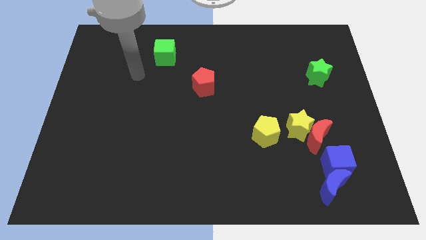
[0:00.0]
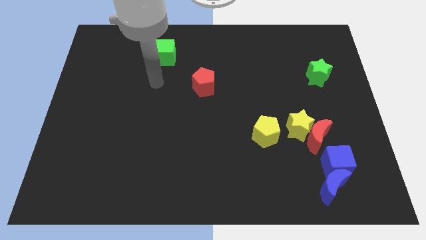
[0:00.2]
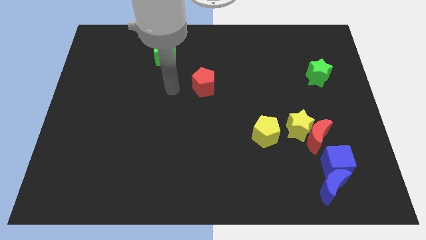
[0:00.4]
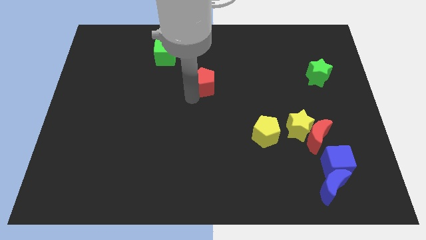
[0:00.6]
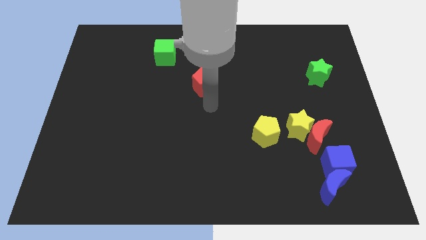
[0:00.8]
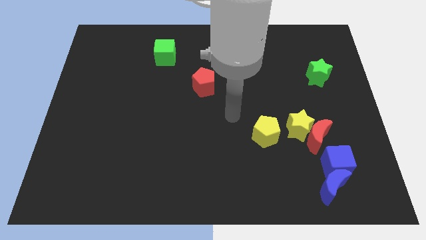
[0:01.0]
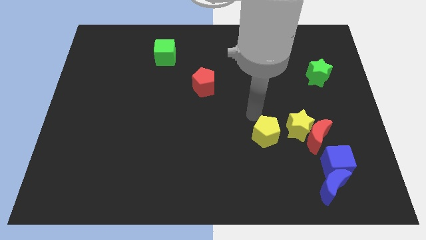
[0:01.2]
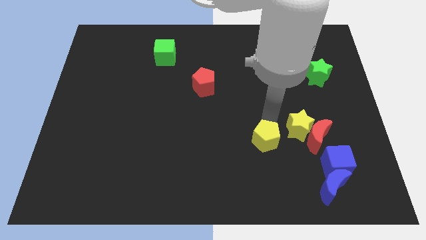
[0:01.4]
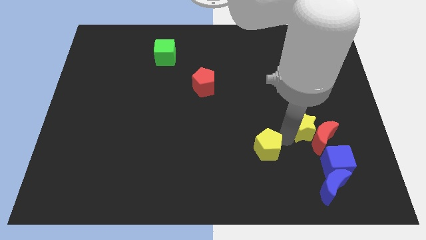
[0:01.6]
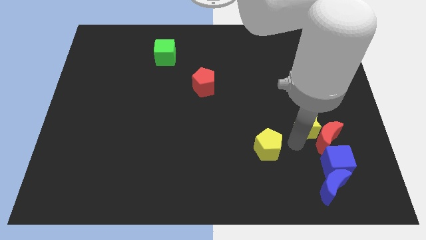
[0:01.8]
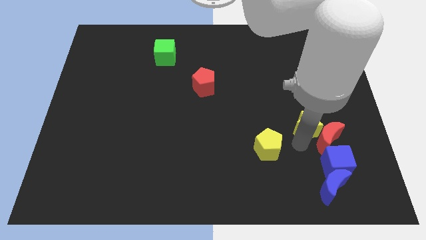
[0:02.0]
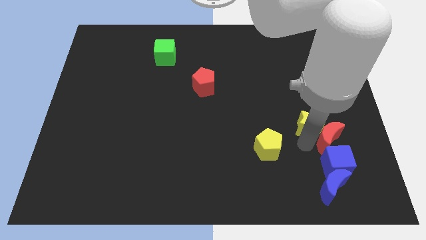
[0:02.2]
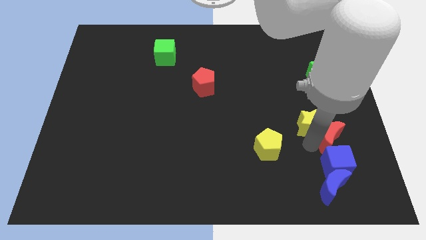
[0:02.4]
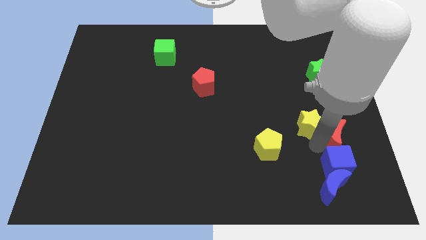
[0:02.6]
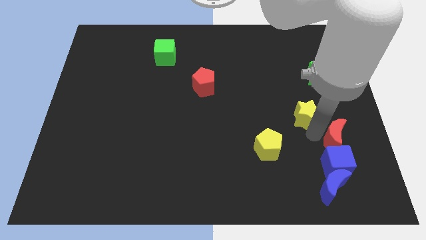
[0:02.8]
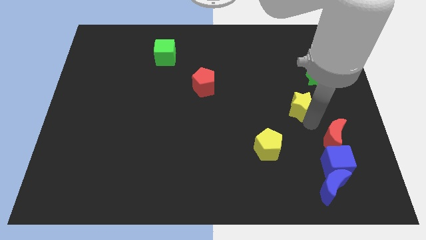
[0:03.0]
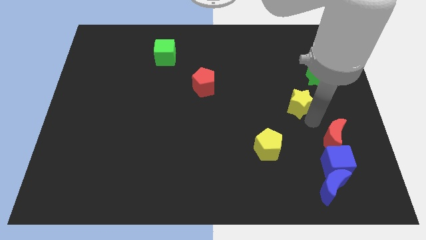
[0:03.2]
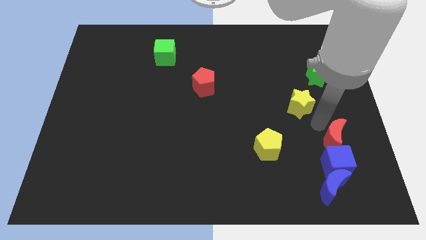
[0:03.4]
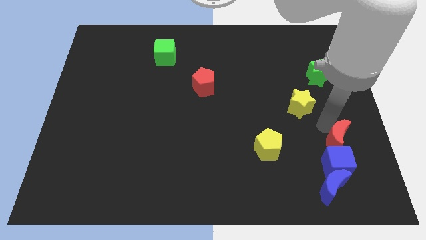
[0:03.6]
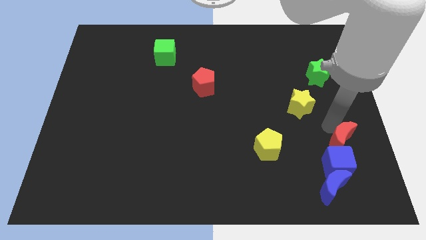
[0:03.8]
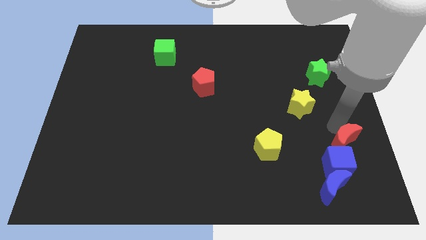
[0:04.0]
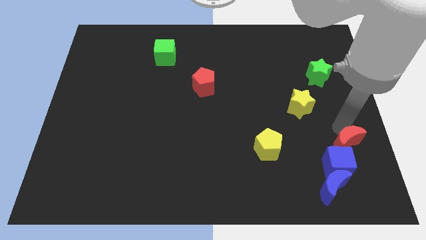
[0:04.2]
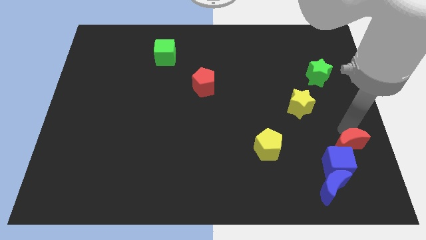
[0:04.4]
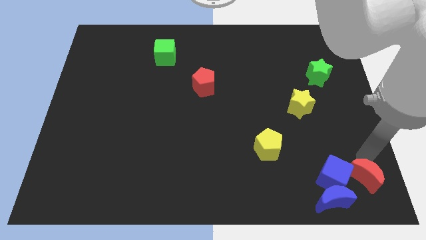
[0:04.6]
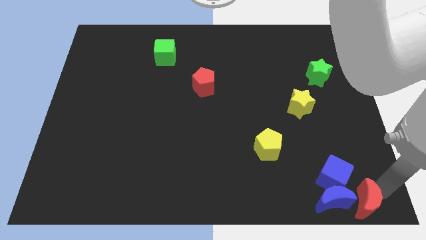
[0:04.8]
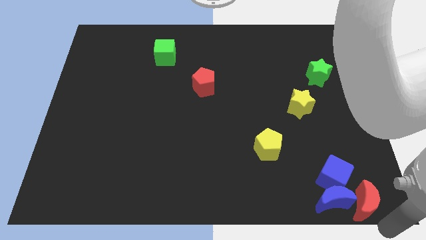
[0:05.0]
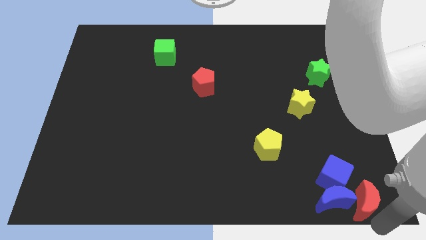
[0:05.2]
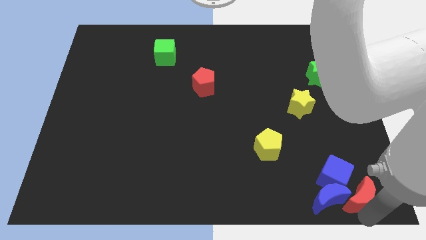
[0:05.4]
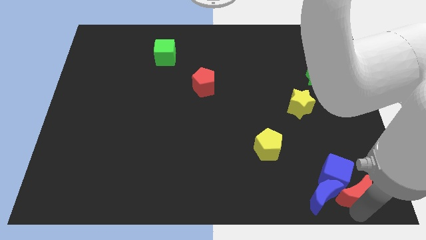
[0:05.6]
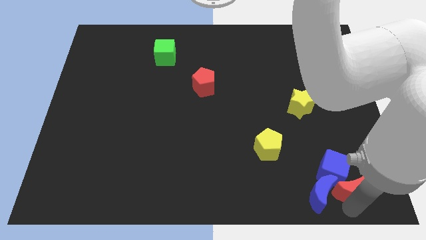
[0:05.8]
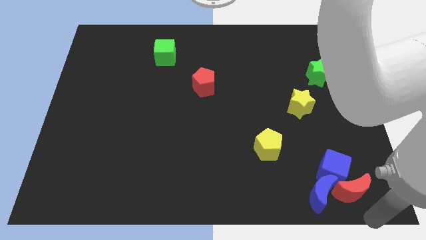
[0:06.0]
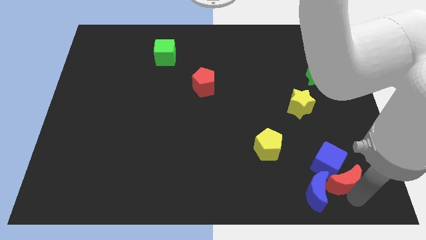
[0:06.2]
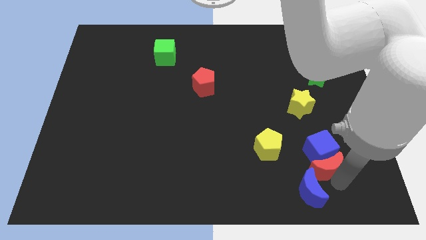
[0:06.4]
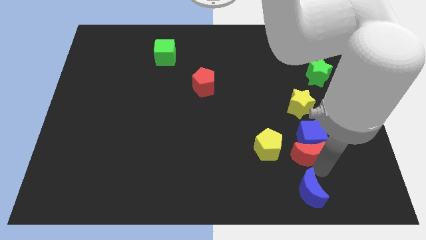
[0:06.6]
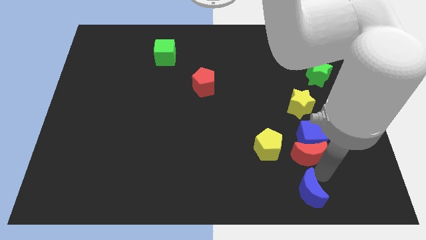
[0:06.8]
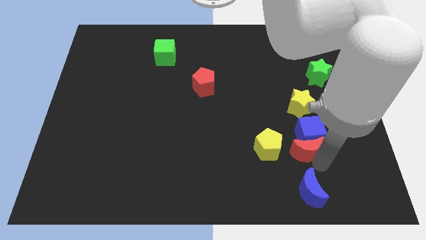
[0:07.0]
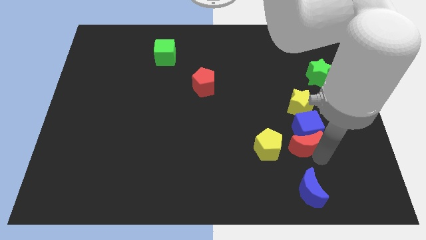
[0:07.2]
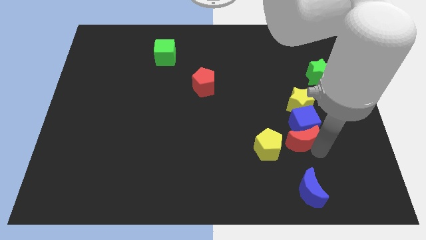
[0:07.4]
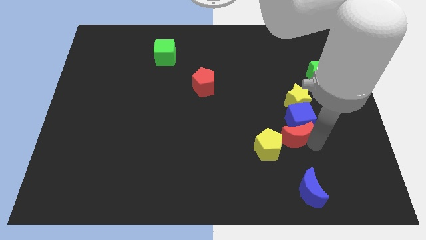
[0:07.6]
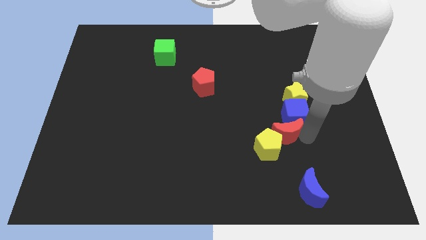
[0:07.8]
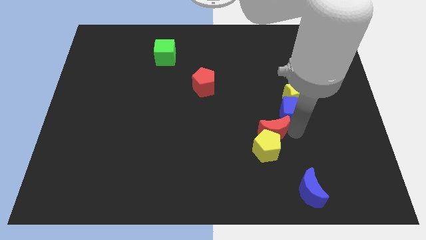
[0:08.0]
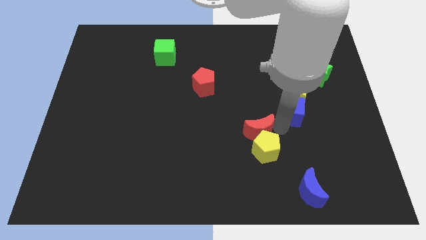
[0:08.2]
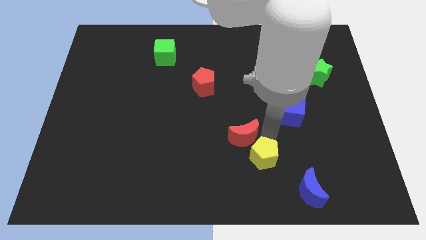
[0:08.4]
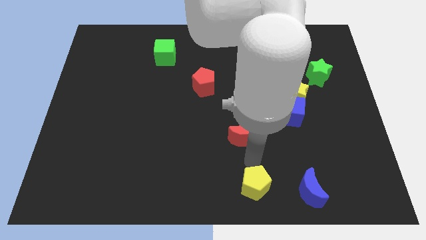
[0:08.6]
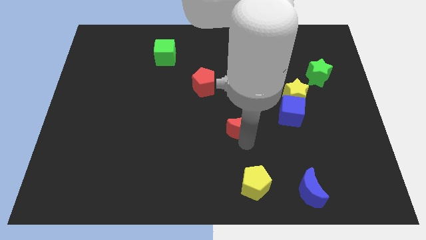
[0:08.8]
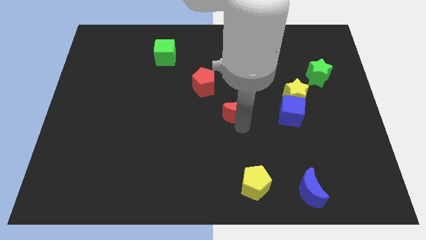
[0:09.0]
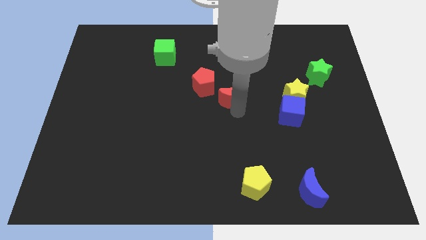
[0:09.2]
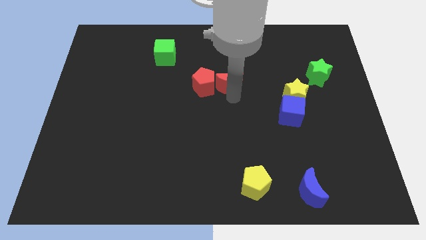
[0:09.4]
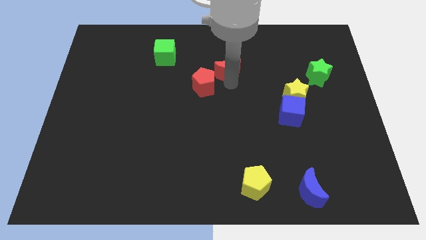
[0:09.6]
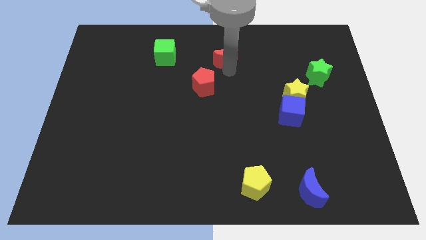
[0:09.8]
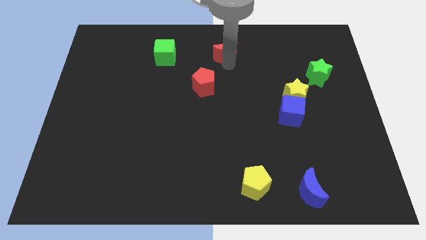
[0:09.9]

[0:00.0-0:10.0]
slide the red moon to the top

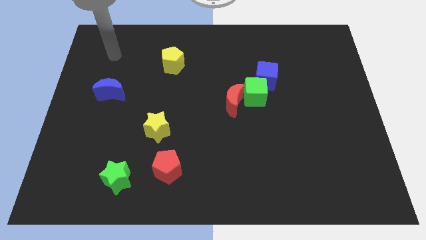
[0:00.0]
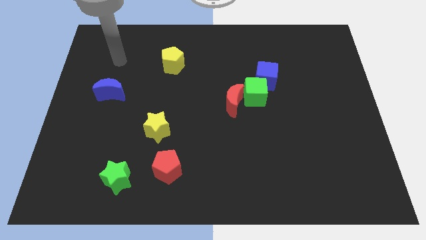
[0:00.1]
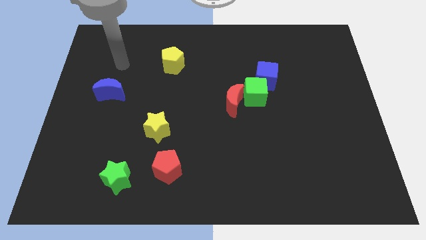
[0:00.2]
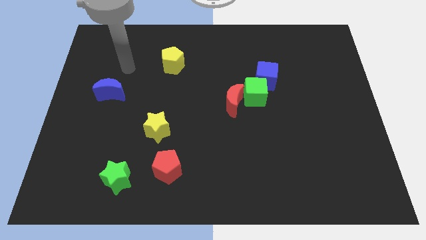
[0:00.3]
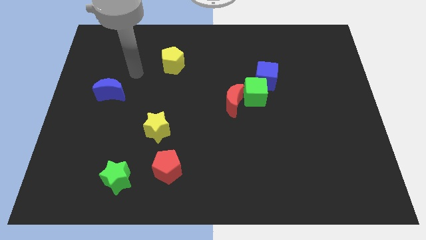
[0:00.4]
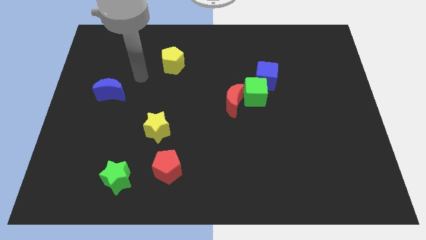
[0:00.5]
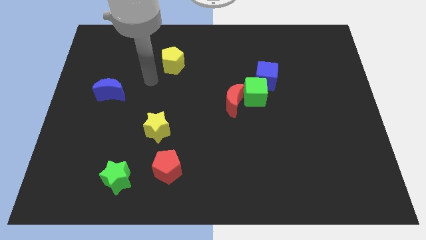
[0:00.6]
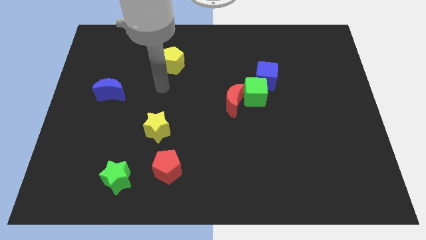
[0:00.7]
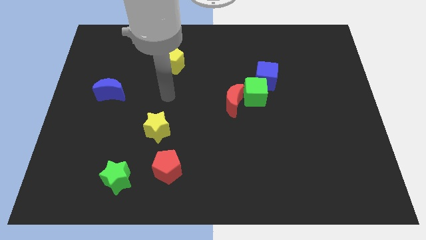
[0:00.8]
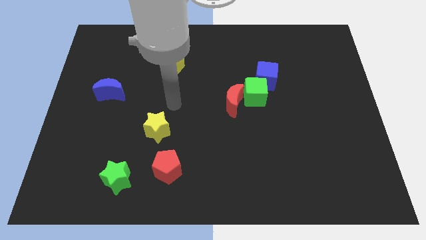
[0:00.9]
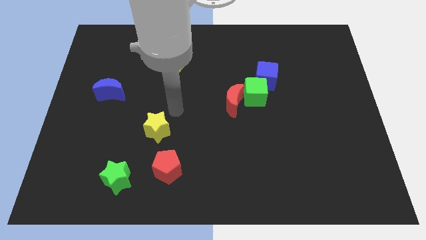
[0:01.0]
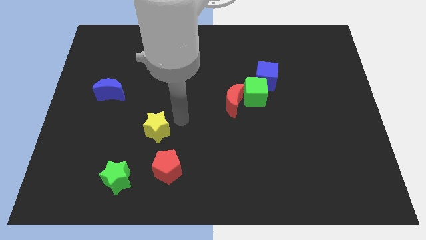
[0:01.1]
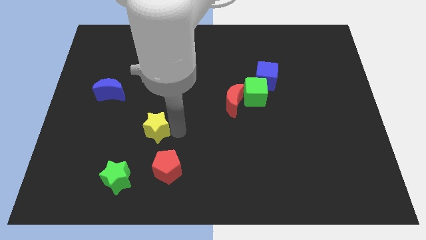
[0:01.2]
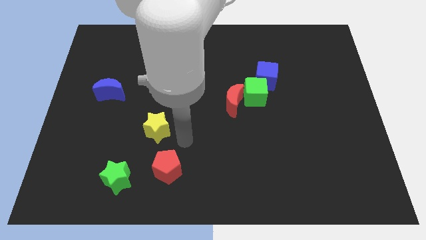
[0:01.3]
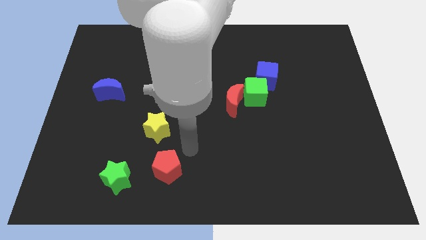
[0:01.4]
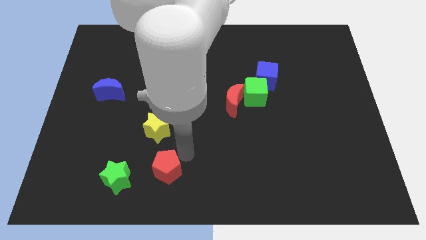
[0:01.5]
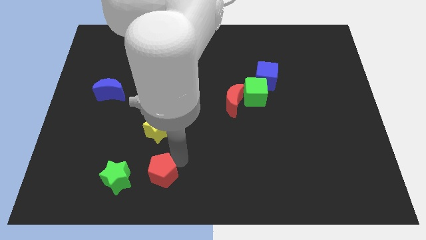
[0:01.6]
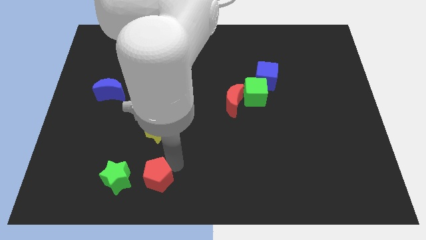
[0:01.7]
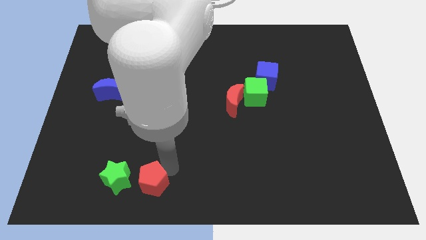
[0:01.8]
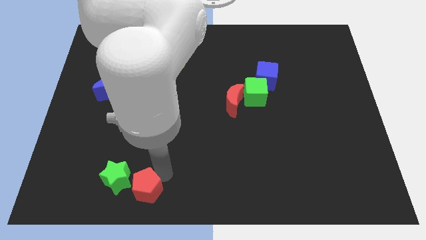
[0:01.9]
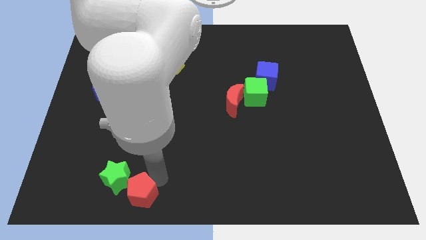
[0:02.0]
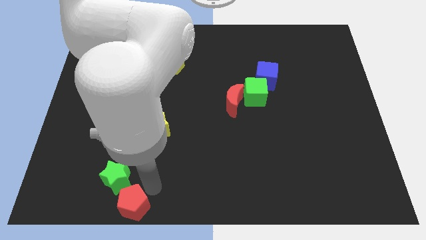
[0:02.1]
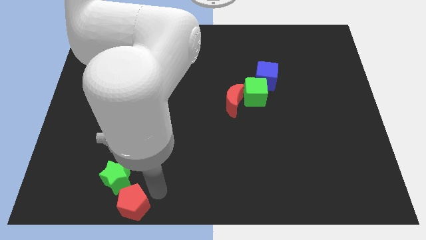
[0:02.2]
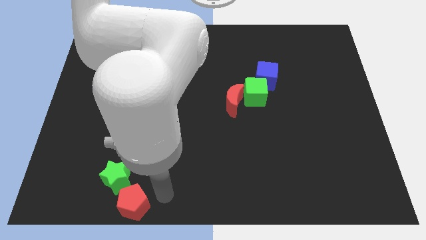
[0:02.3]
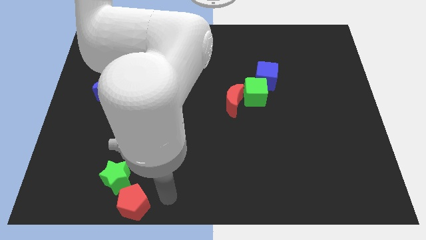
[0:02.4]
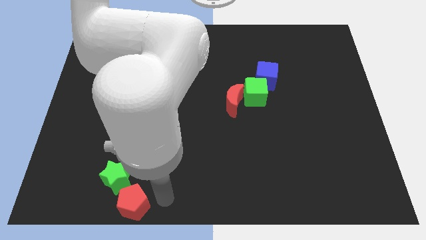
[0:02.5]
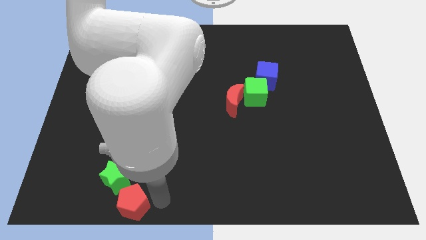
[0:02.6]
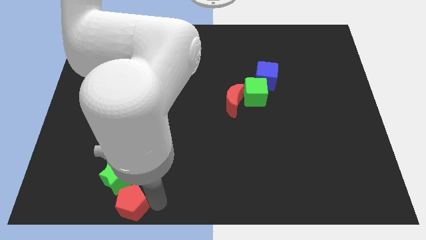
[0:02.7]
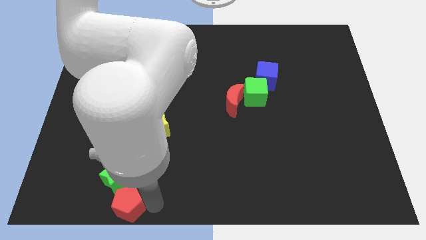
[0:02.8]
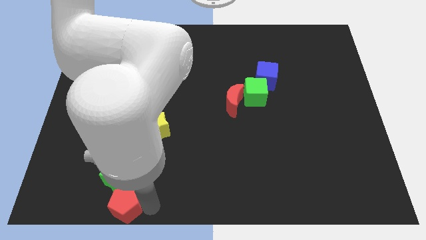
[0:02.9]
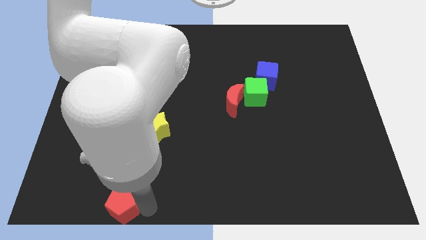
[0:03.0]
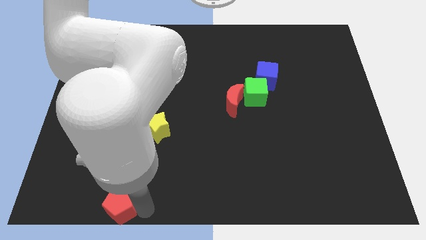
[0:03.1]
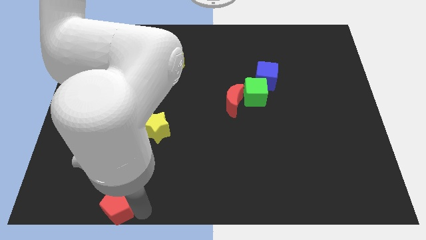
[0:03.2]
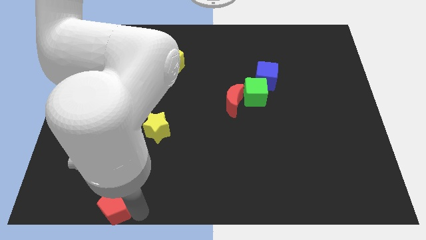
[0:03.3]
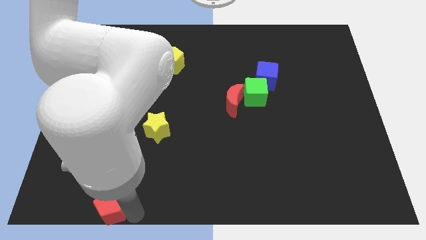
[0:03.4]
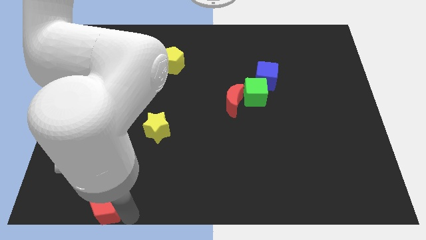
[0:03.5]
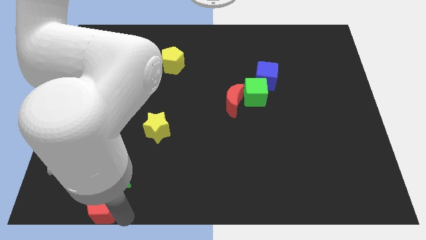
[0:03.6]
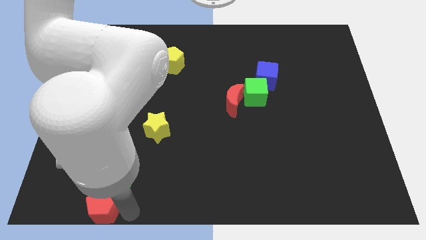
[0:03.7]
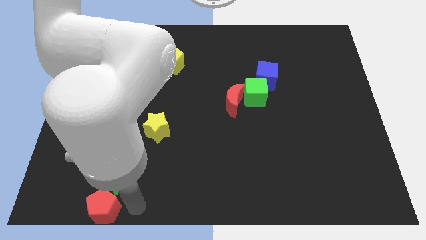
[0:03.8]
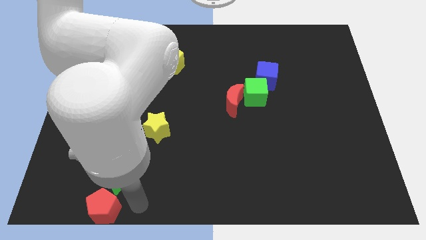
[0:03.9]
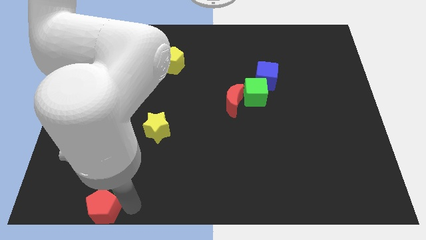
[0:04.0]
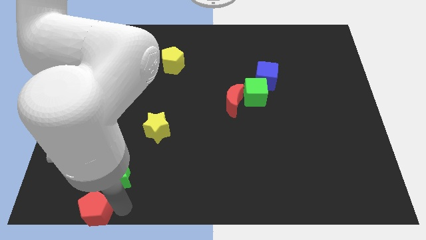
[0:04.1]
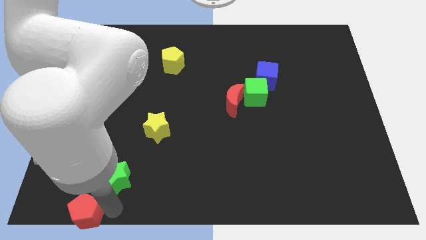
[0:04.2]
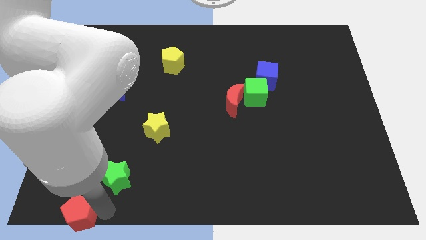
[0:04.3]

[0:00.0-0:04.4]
push the red pentagon to the bottom left of the board
